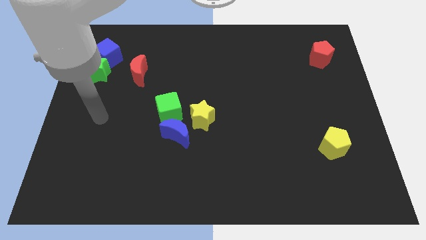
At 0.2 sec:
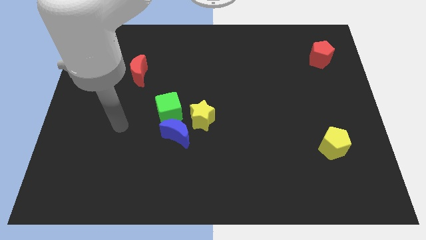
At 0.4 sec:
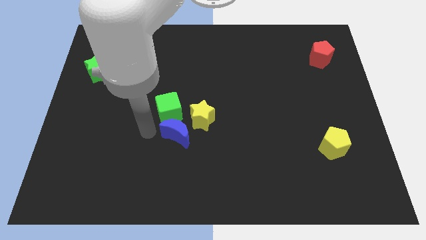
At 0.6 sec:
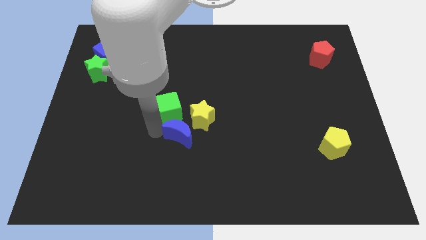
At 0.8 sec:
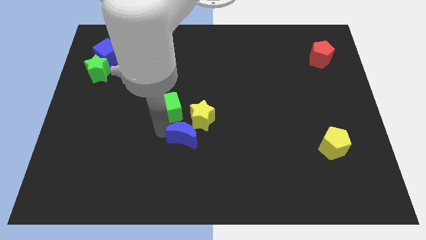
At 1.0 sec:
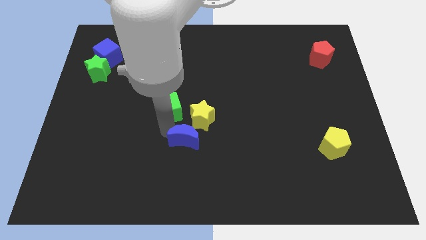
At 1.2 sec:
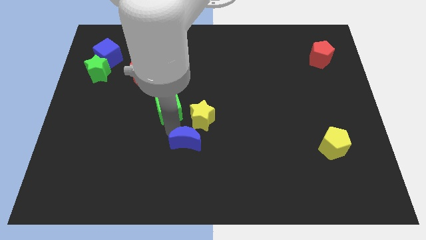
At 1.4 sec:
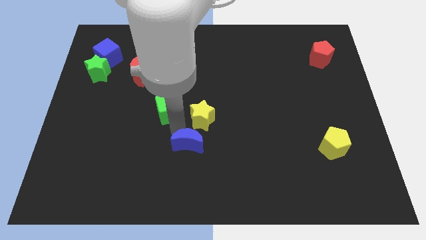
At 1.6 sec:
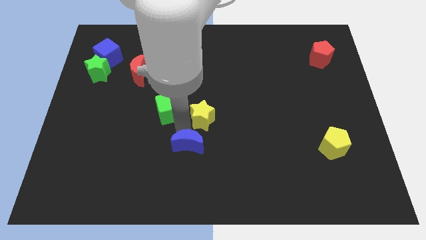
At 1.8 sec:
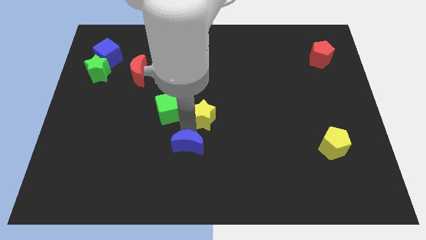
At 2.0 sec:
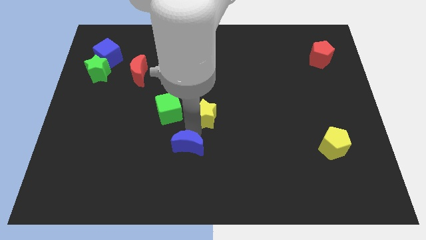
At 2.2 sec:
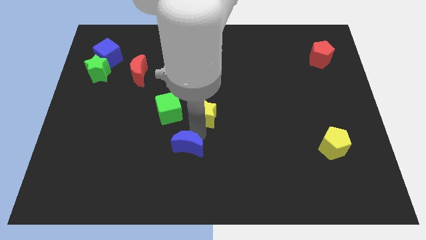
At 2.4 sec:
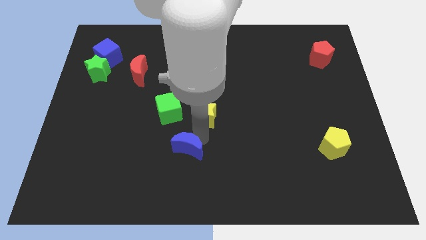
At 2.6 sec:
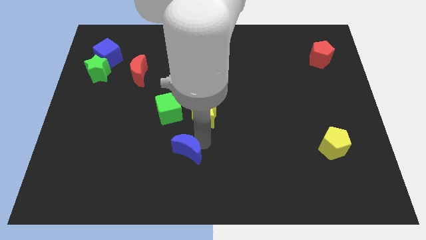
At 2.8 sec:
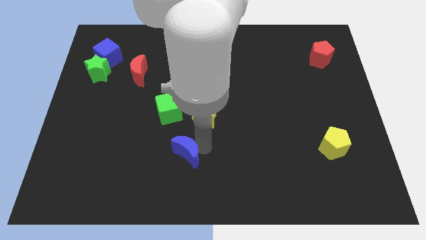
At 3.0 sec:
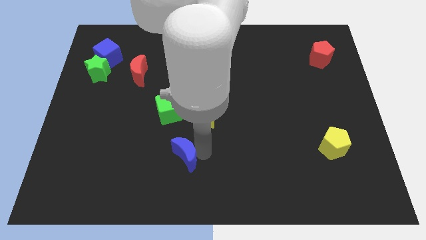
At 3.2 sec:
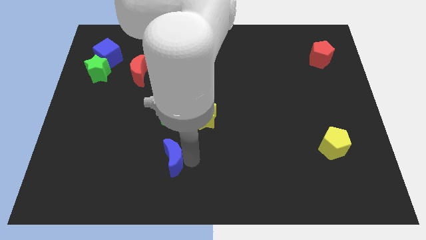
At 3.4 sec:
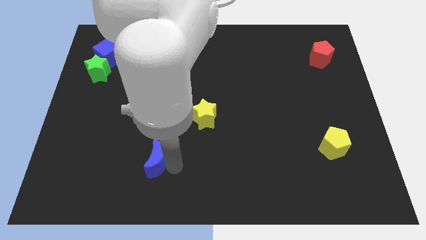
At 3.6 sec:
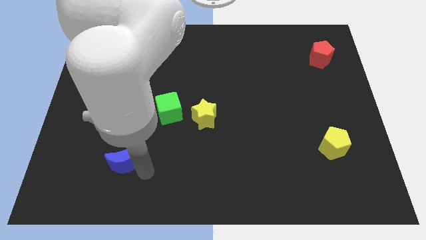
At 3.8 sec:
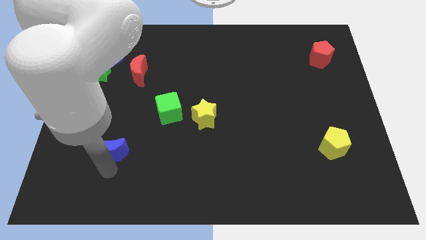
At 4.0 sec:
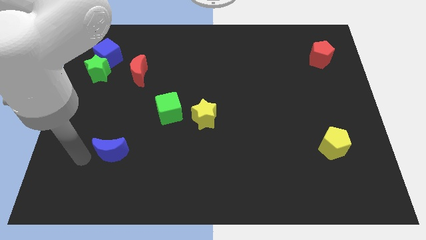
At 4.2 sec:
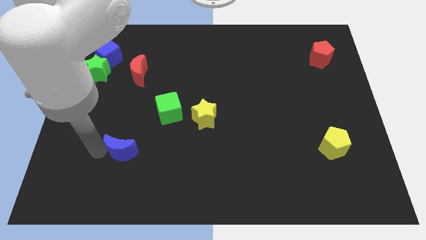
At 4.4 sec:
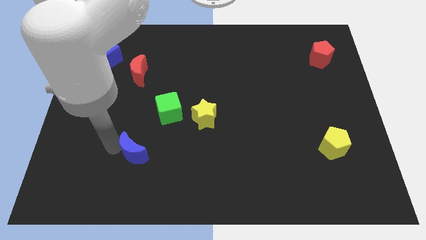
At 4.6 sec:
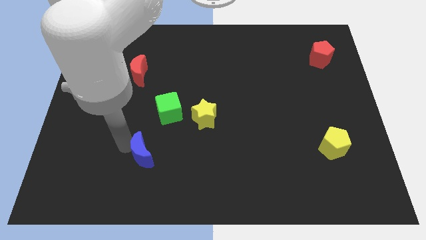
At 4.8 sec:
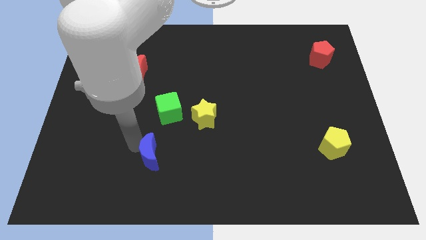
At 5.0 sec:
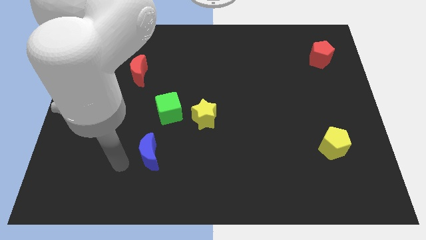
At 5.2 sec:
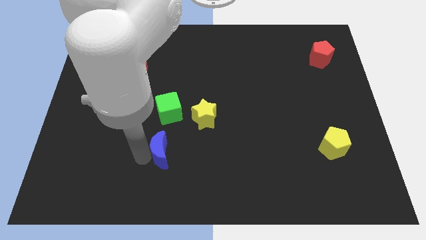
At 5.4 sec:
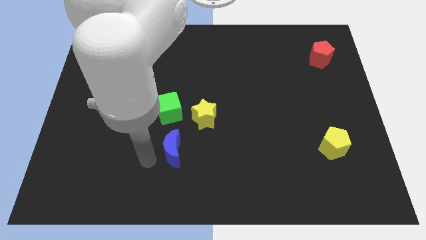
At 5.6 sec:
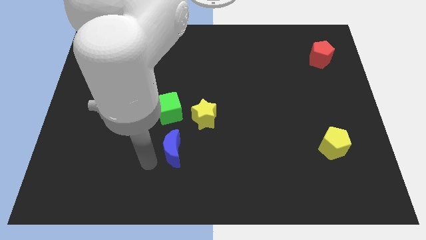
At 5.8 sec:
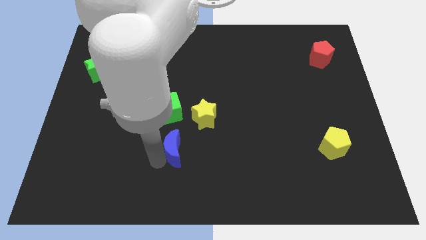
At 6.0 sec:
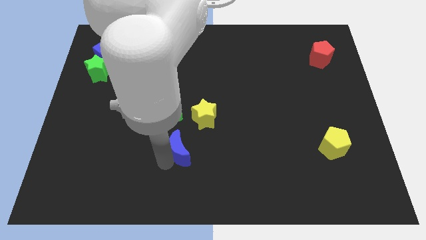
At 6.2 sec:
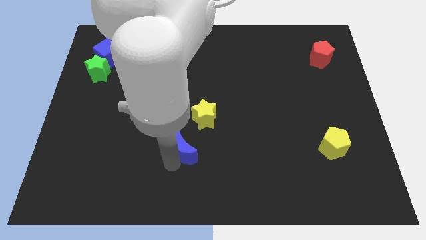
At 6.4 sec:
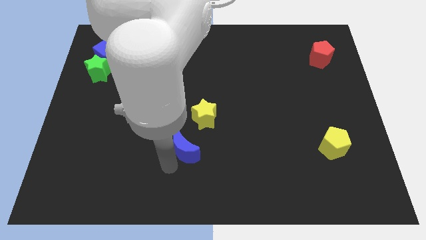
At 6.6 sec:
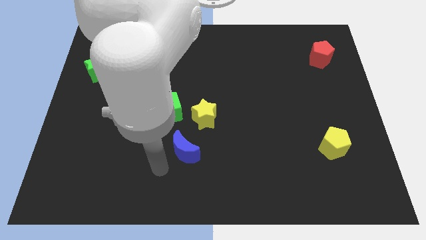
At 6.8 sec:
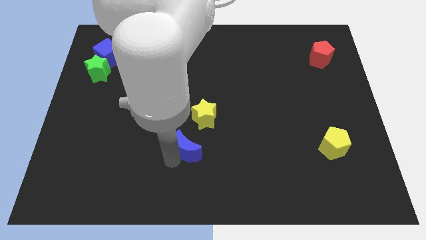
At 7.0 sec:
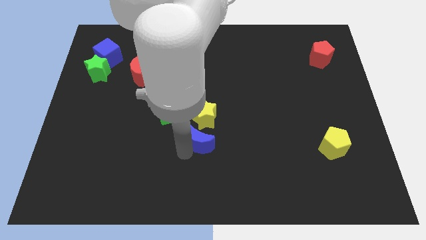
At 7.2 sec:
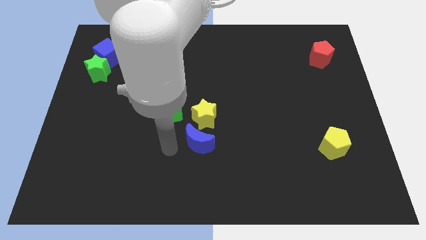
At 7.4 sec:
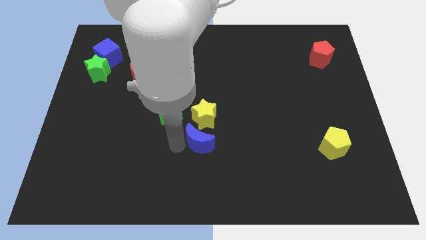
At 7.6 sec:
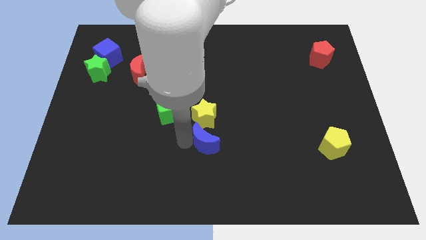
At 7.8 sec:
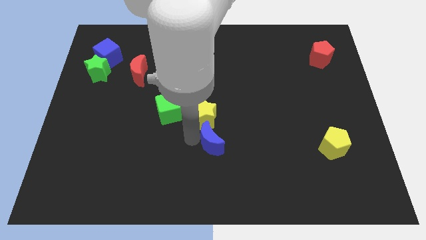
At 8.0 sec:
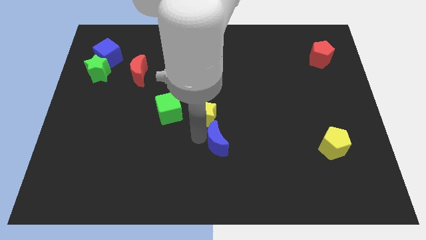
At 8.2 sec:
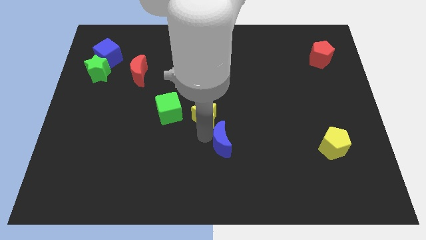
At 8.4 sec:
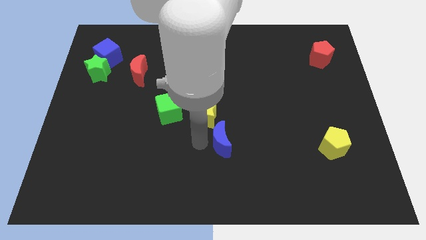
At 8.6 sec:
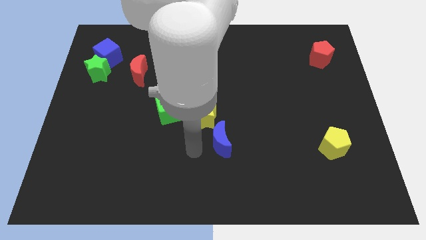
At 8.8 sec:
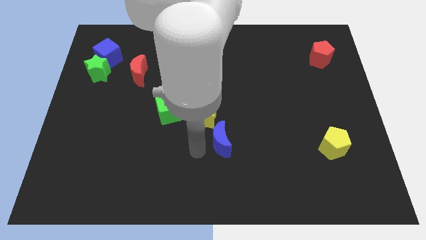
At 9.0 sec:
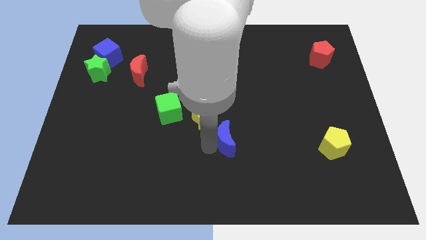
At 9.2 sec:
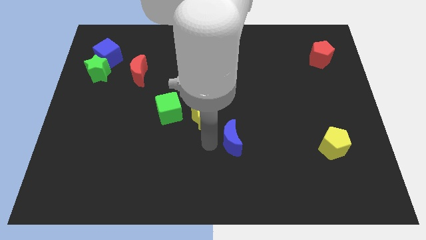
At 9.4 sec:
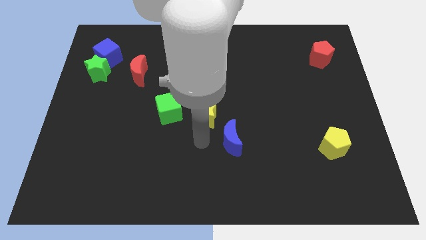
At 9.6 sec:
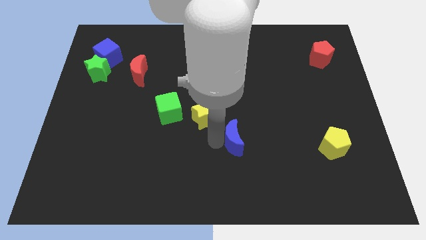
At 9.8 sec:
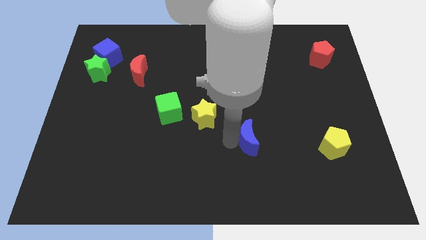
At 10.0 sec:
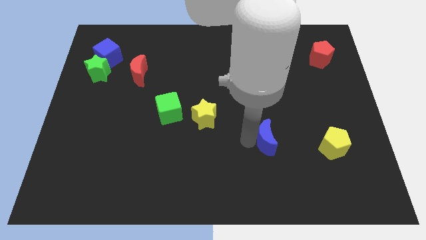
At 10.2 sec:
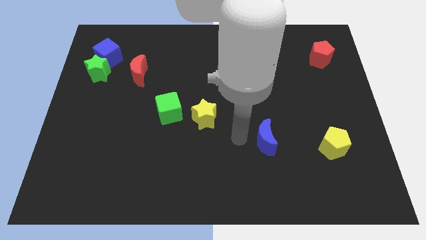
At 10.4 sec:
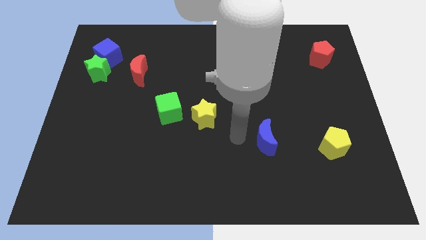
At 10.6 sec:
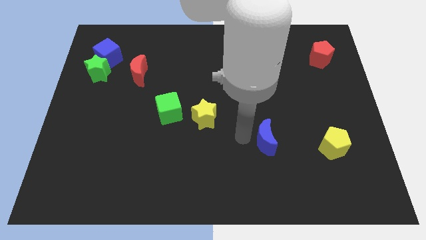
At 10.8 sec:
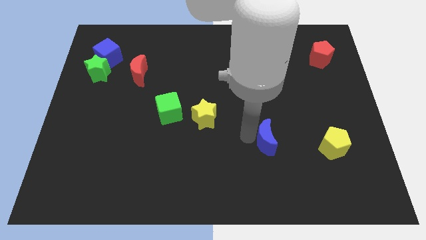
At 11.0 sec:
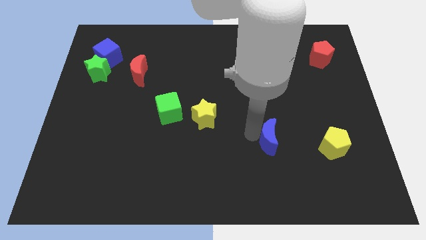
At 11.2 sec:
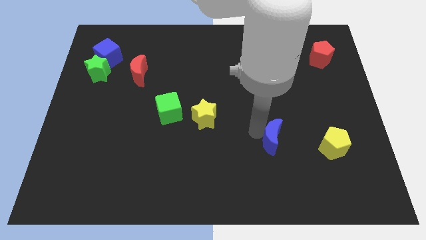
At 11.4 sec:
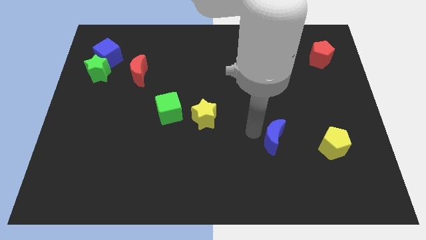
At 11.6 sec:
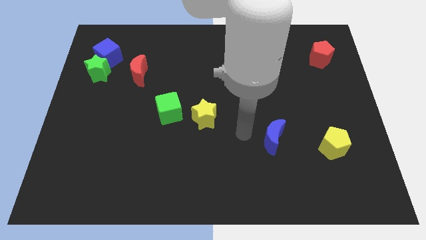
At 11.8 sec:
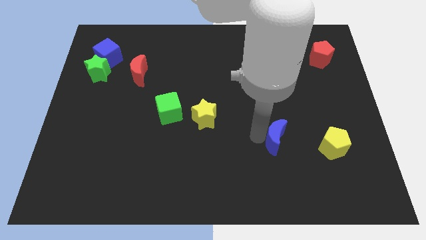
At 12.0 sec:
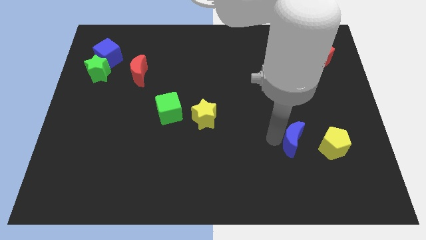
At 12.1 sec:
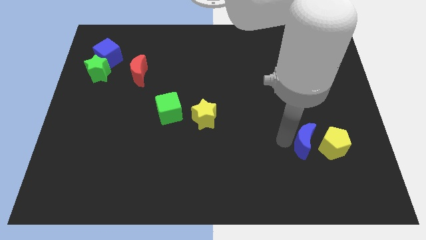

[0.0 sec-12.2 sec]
push the blue moon to the yellow pentagon
